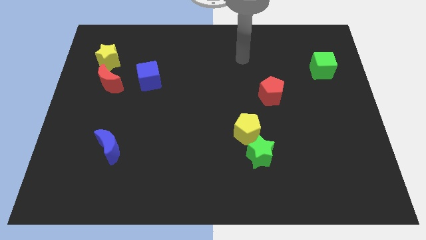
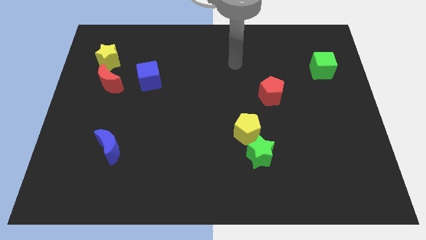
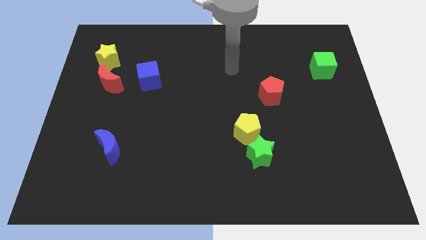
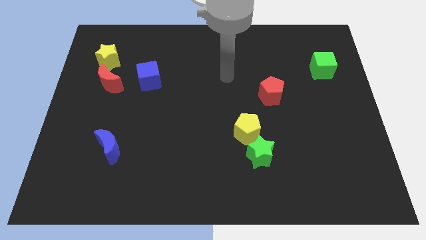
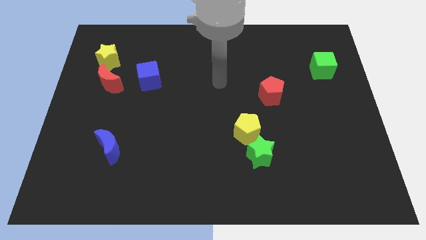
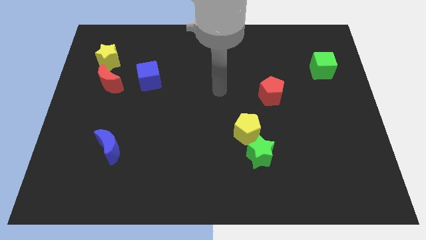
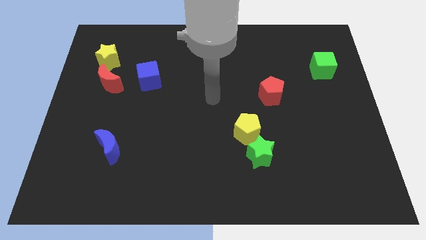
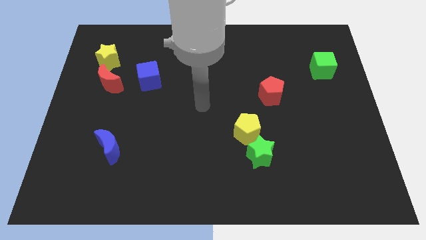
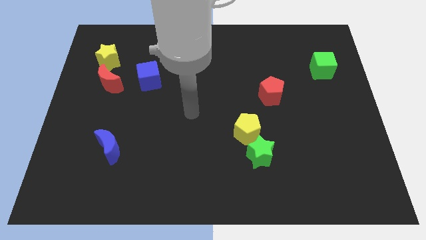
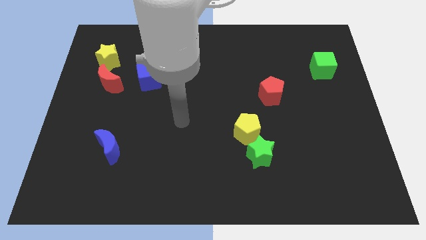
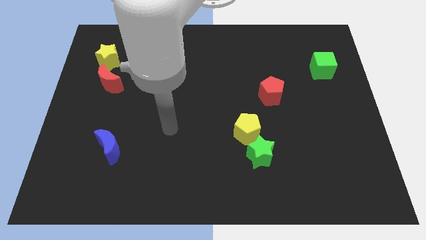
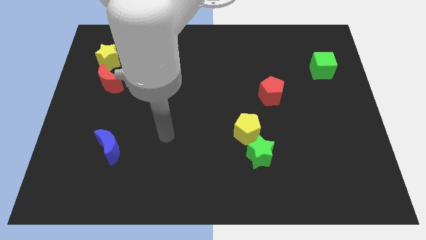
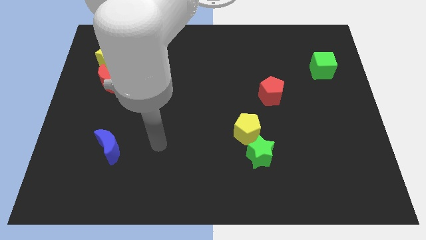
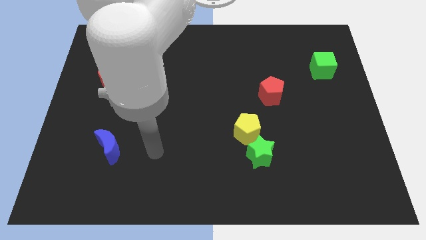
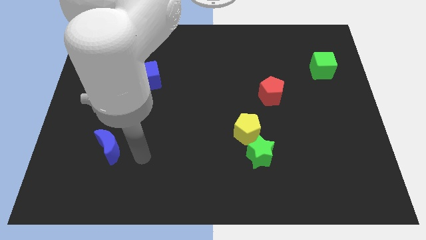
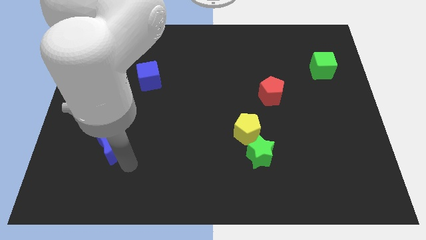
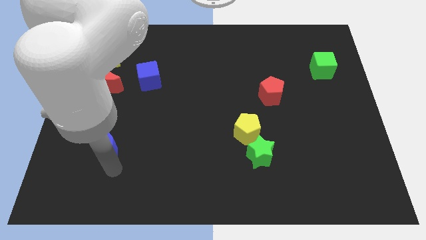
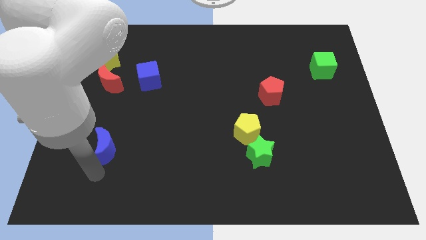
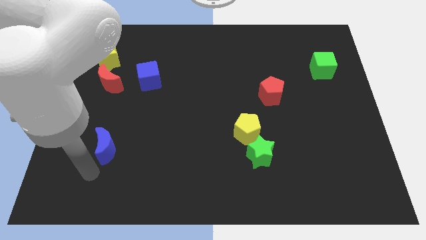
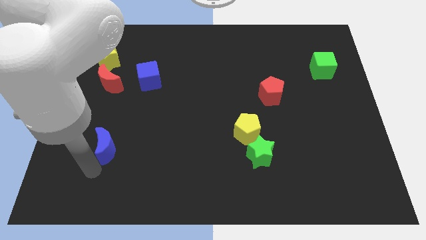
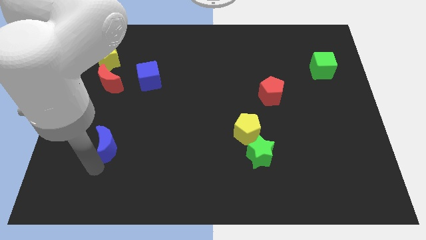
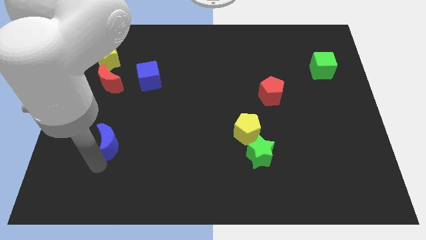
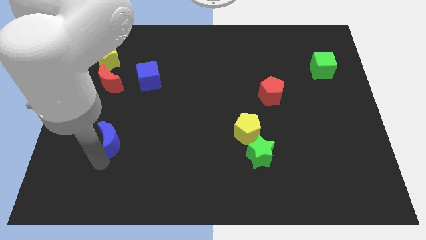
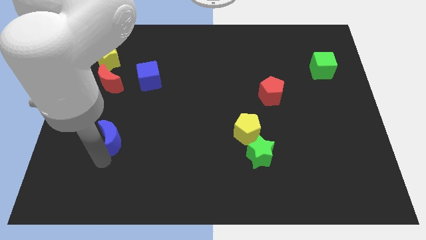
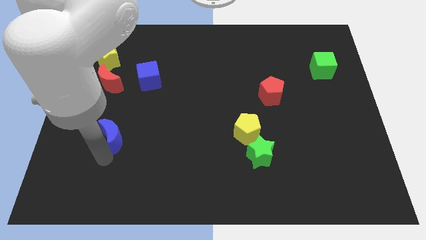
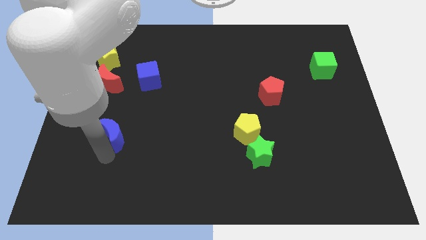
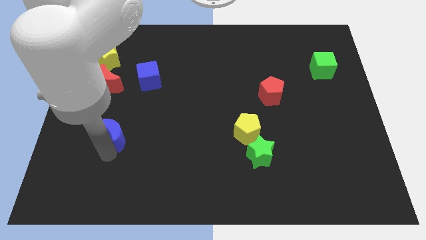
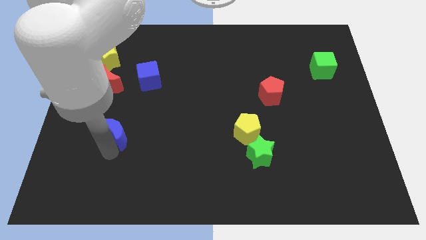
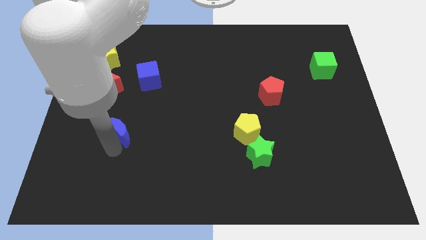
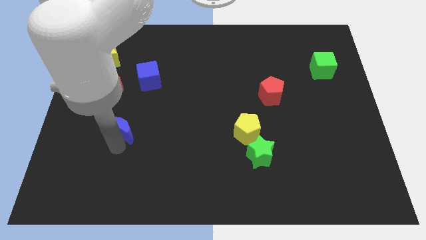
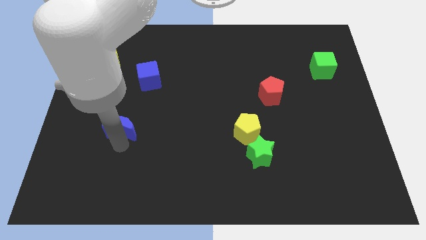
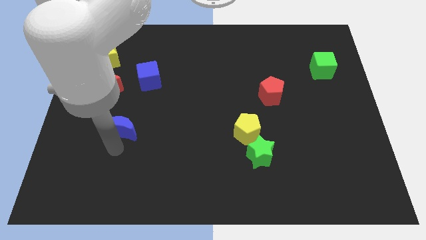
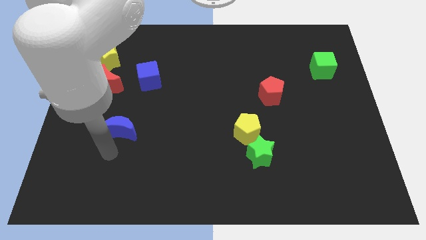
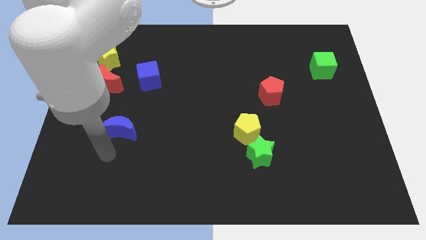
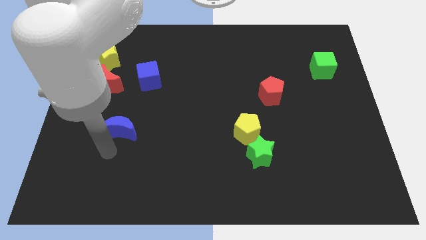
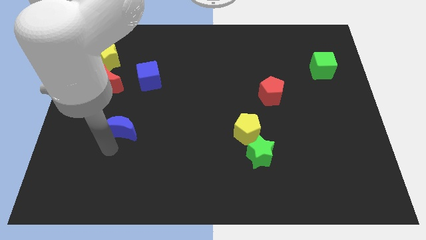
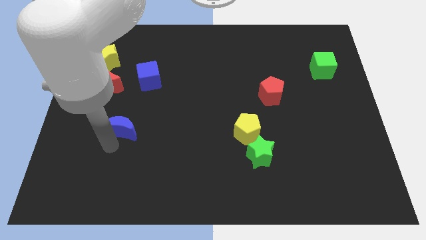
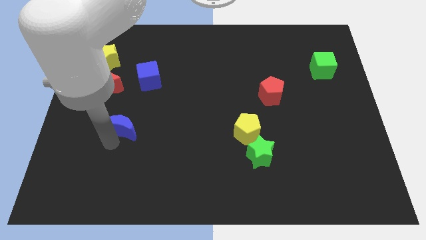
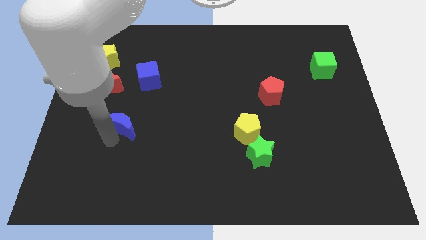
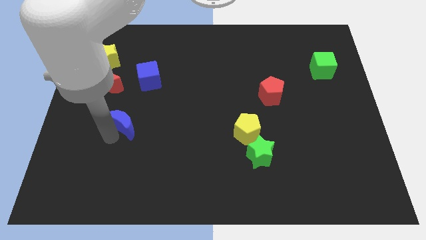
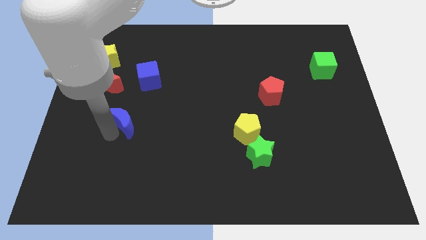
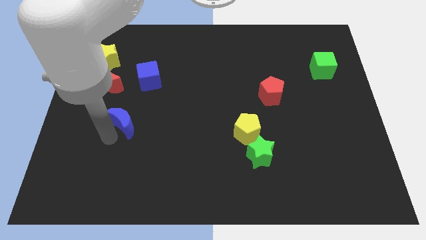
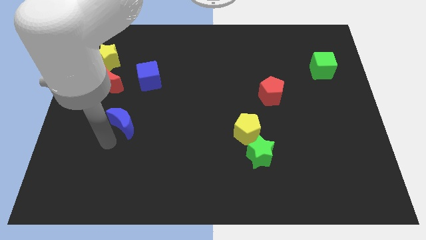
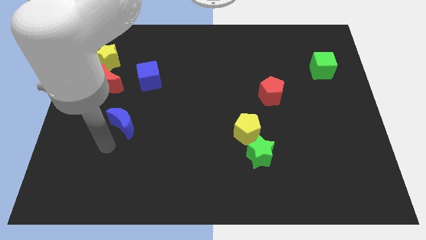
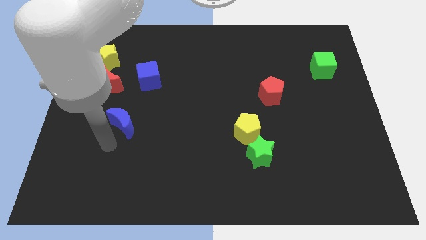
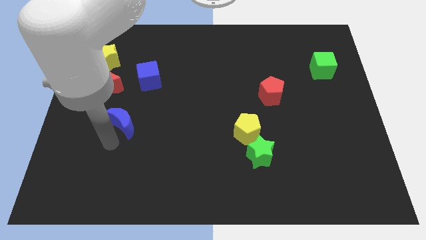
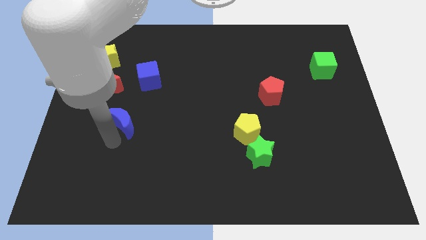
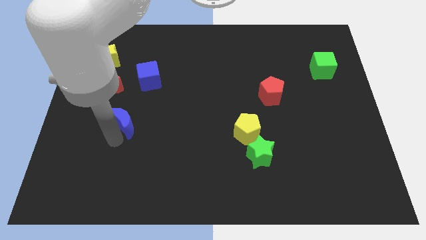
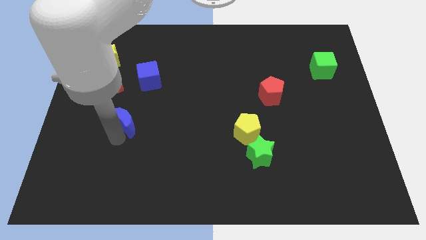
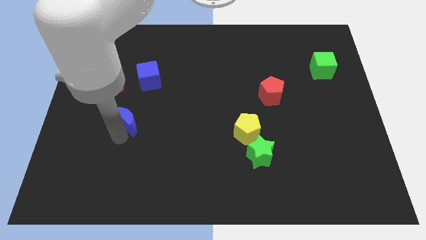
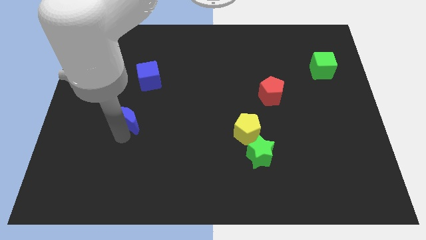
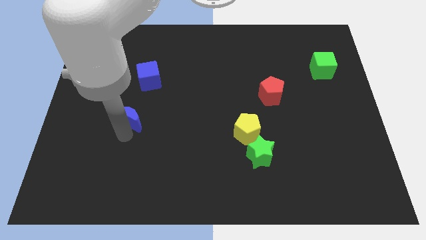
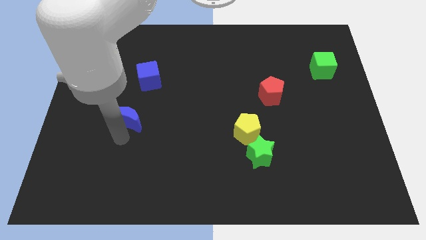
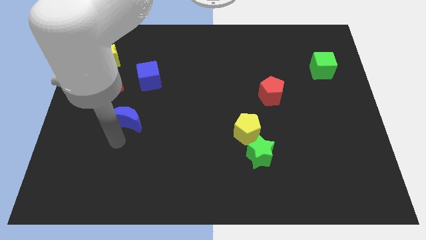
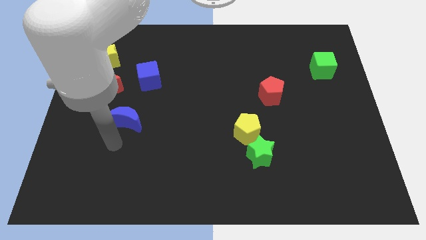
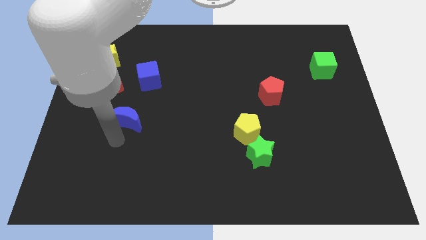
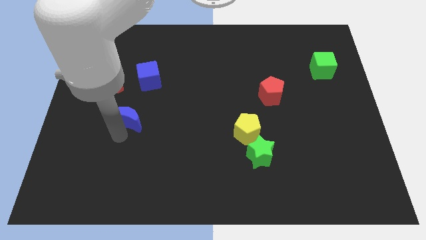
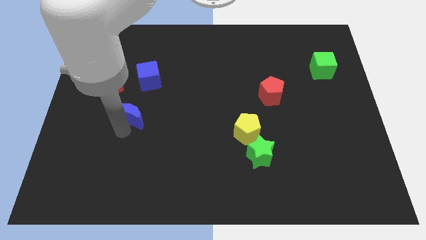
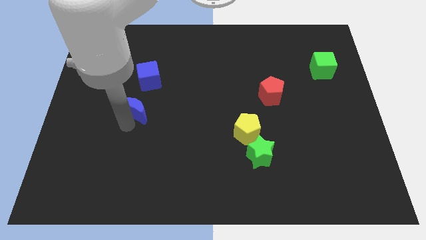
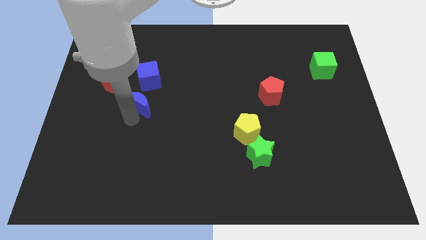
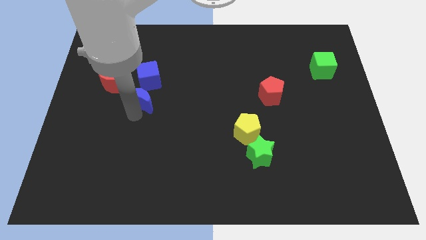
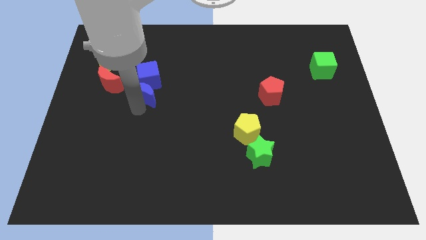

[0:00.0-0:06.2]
put the blue moon to the blue cube
